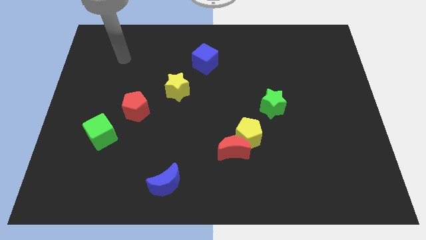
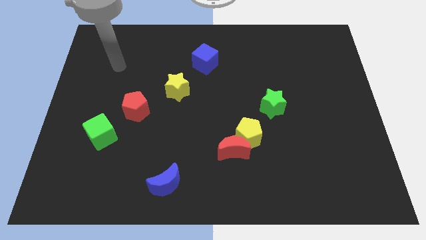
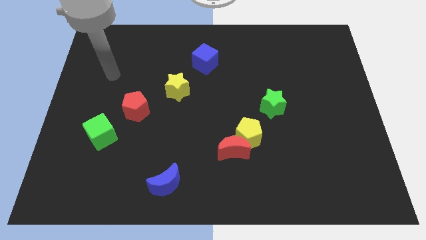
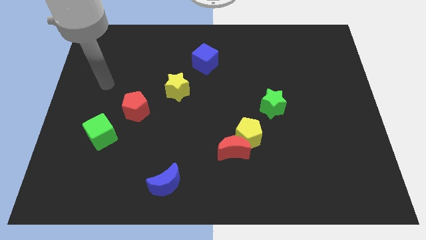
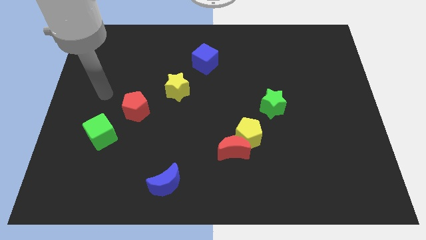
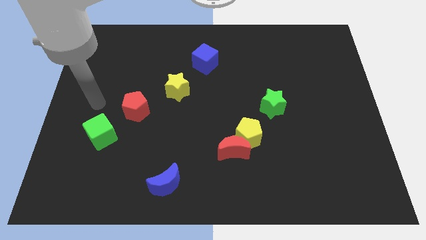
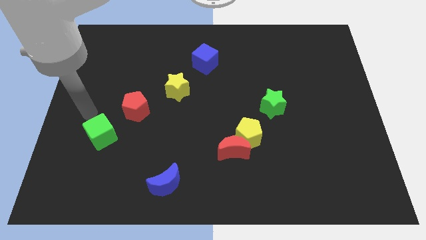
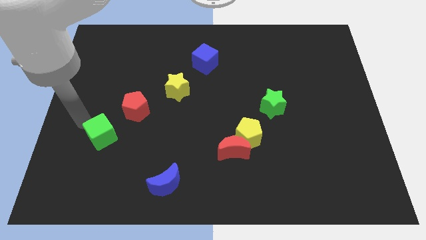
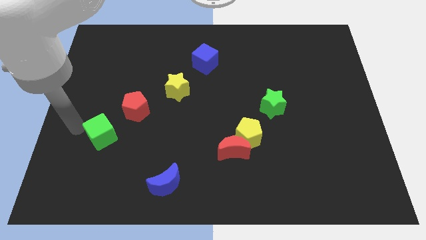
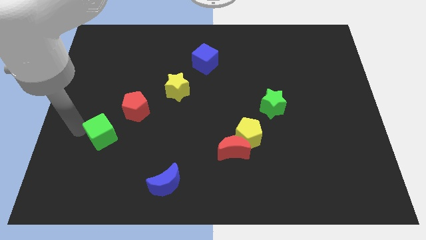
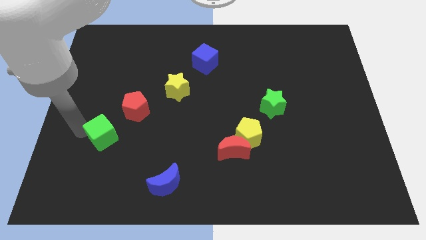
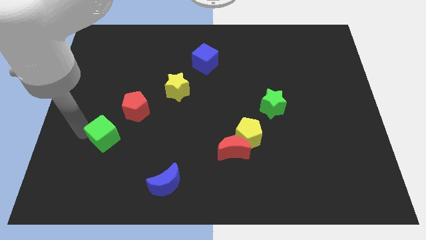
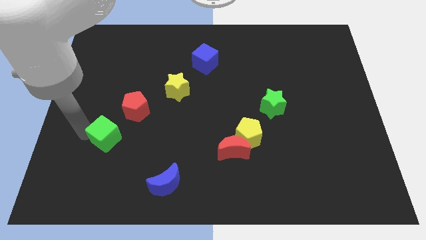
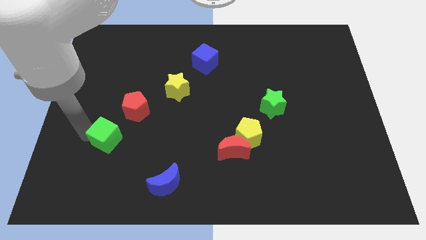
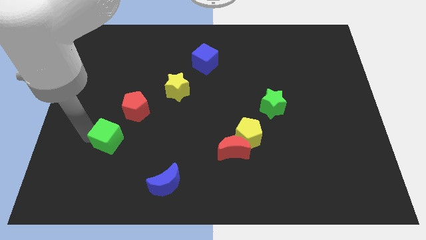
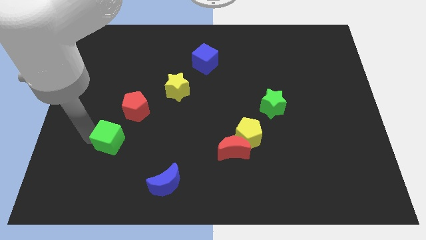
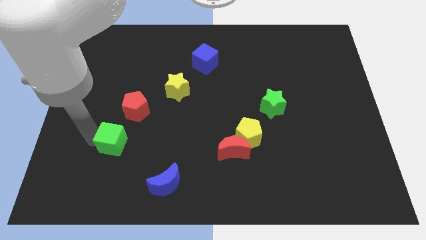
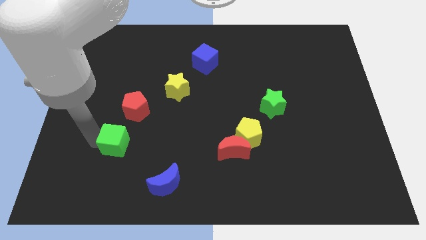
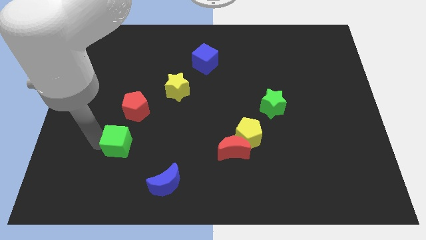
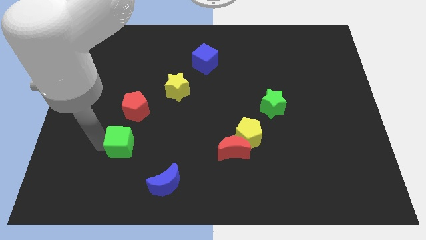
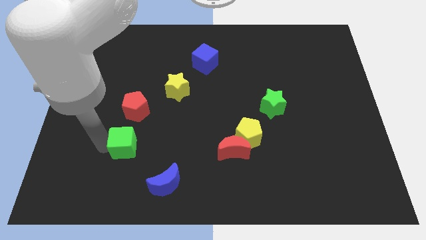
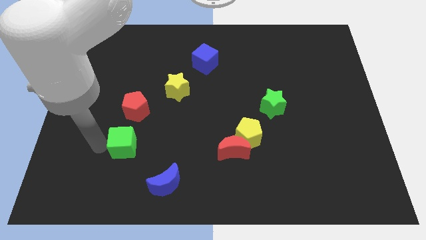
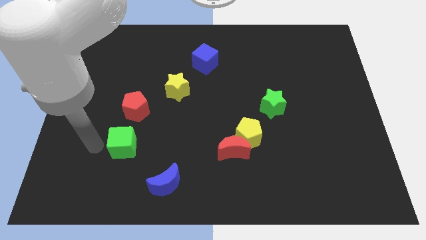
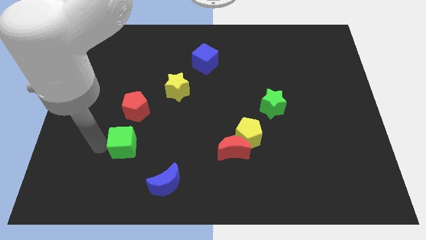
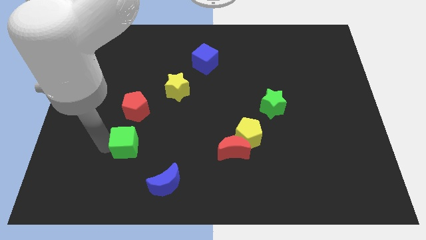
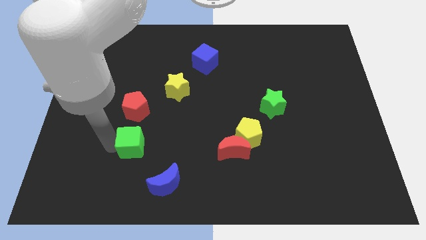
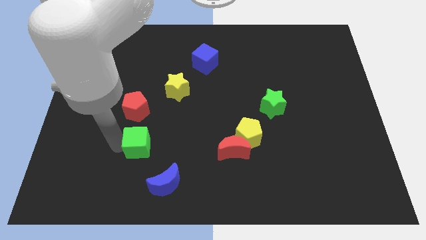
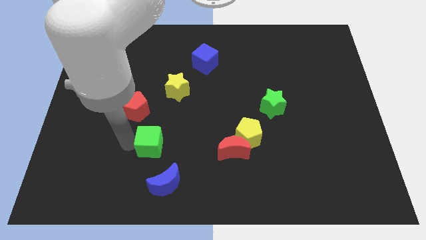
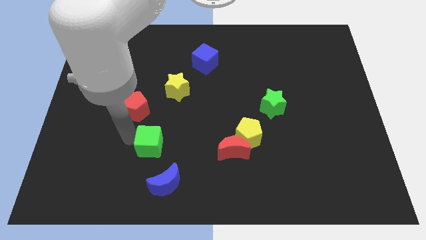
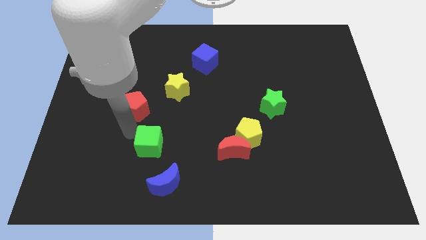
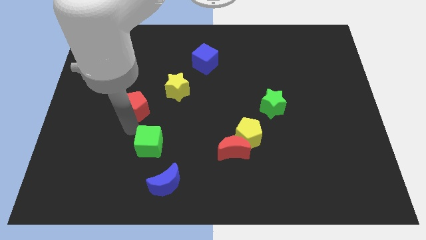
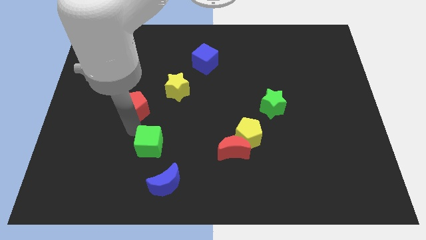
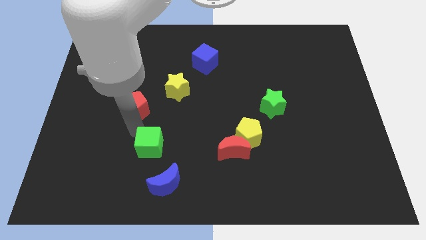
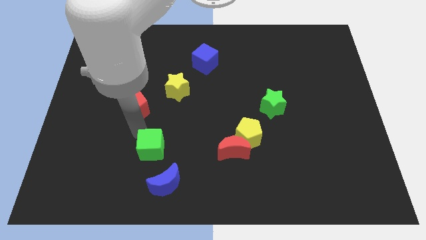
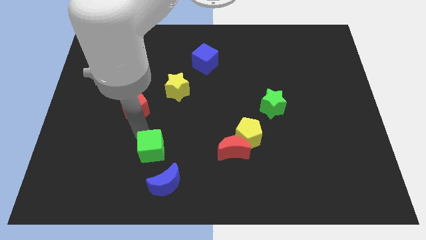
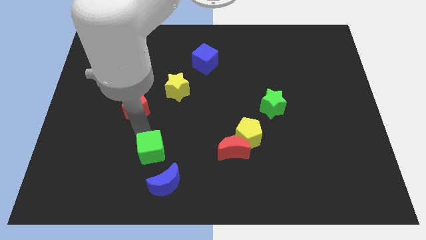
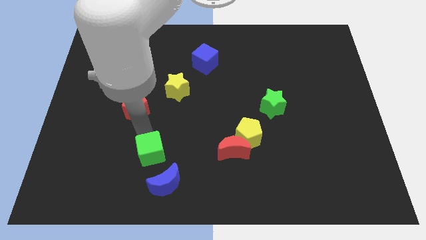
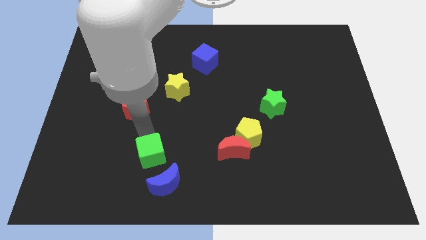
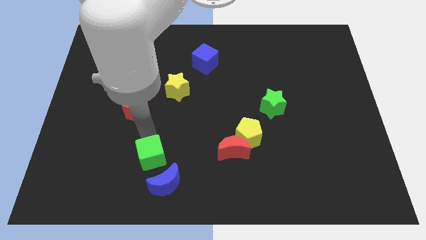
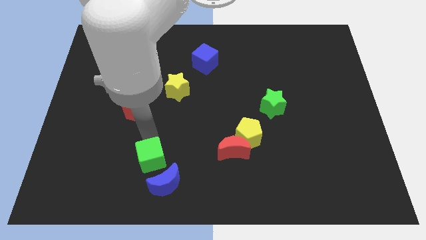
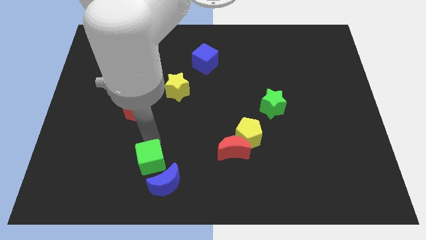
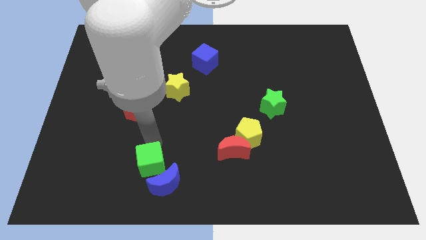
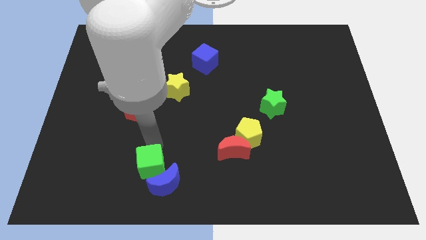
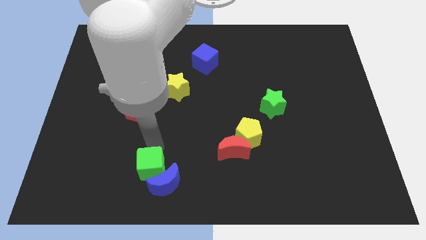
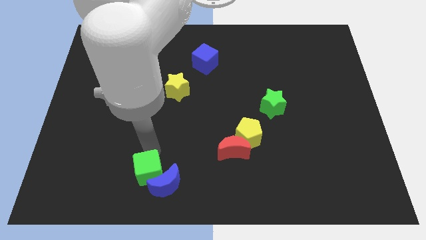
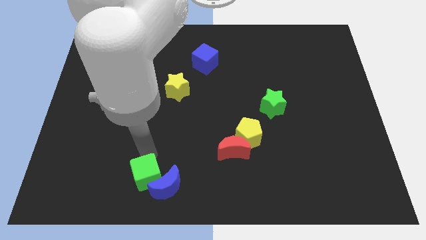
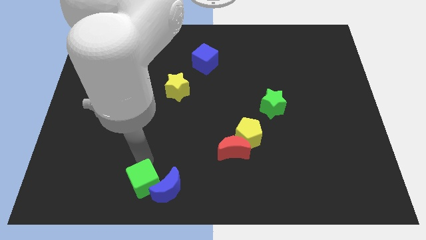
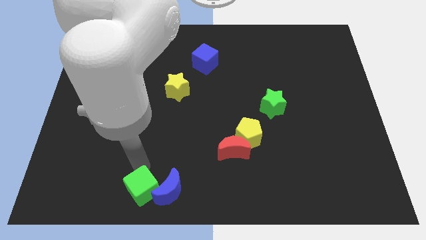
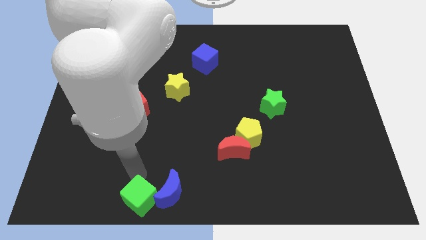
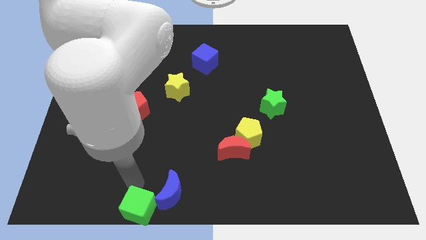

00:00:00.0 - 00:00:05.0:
move the green cube to the bottom

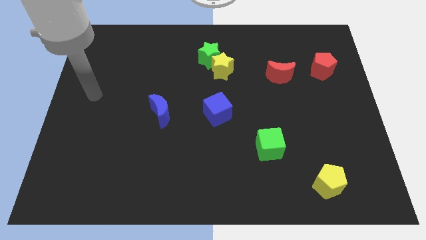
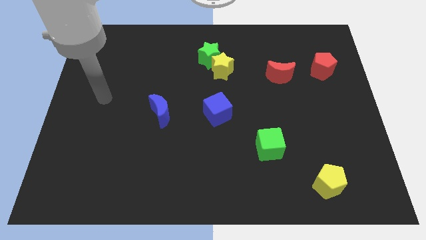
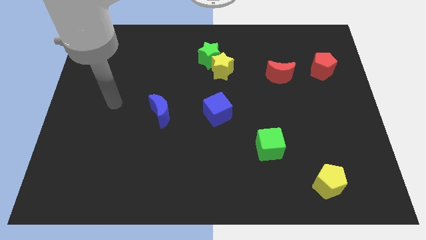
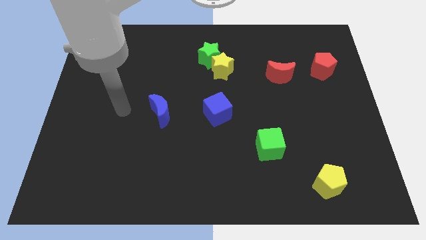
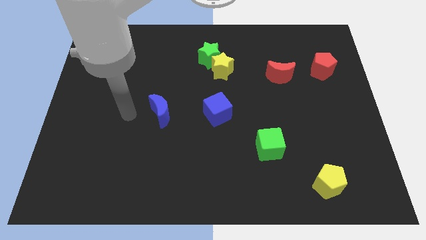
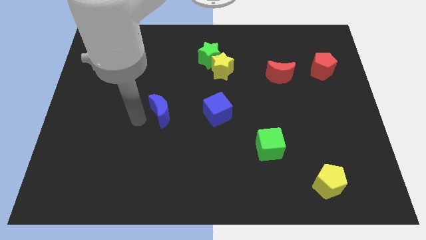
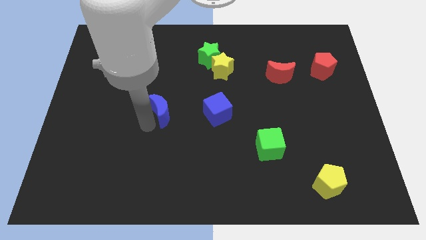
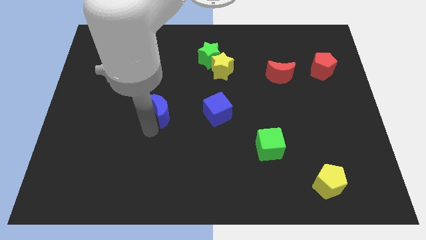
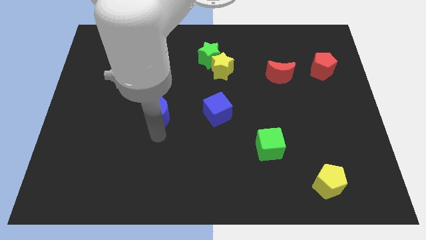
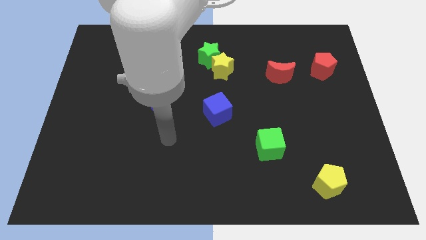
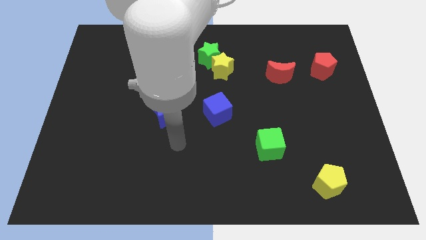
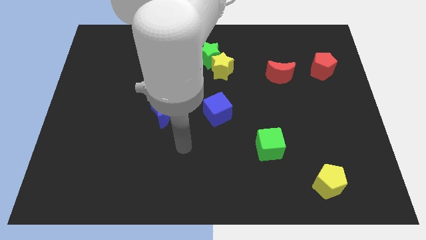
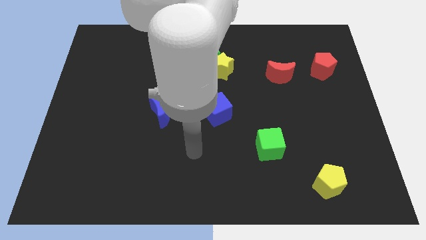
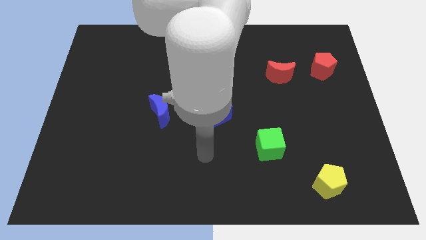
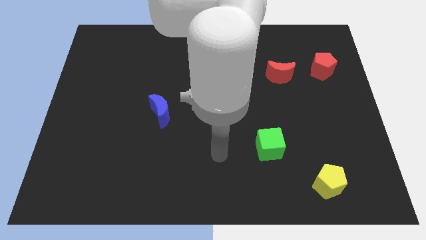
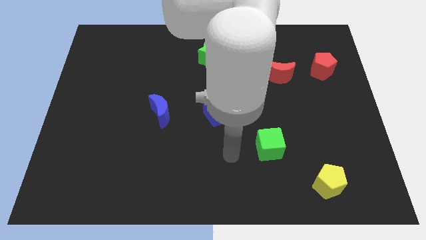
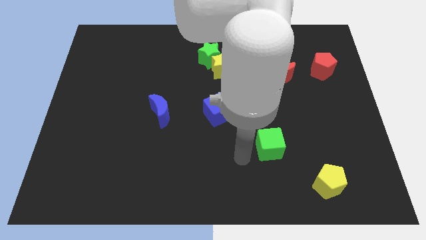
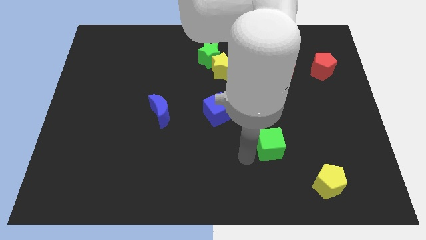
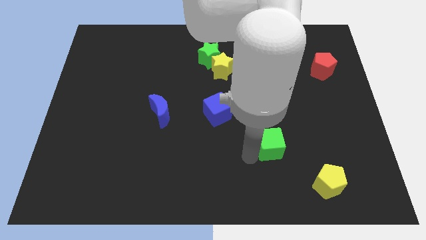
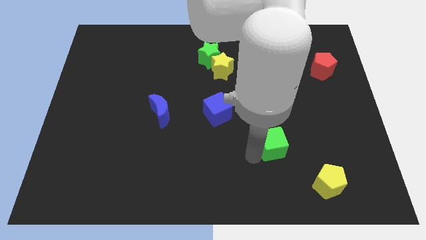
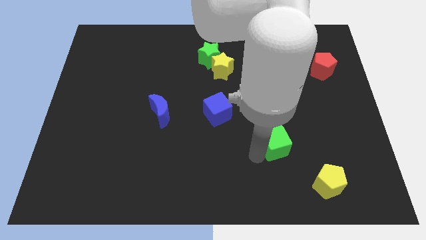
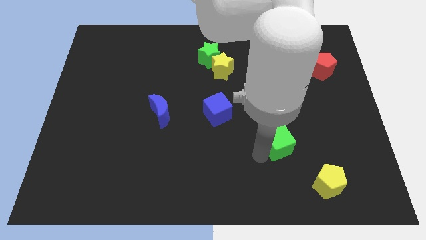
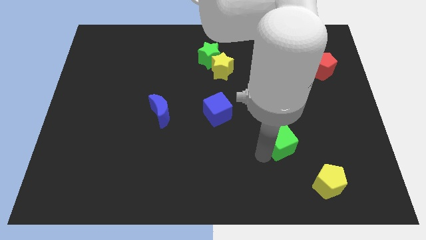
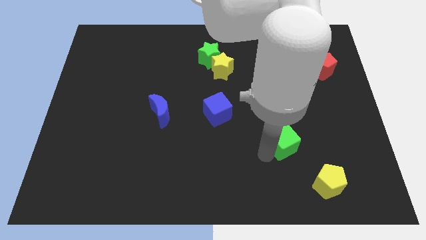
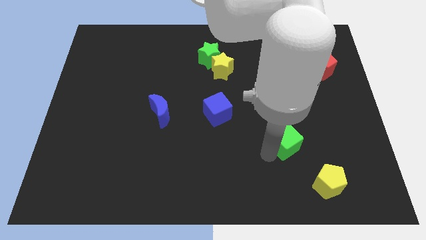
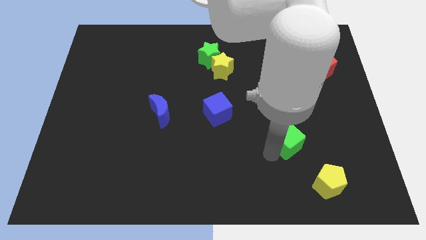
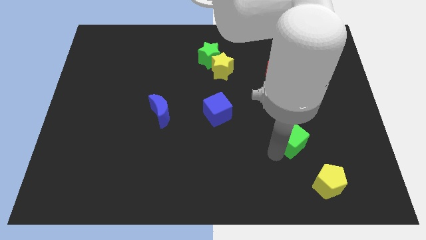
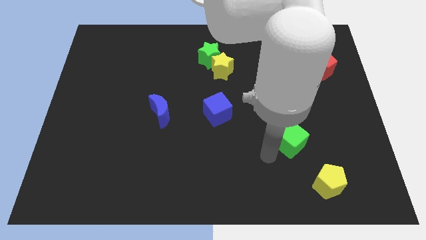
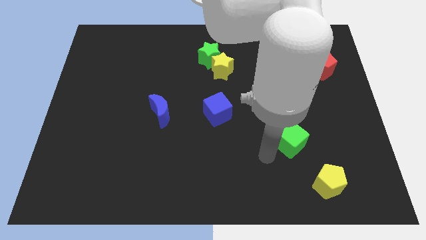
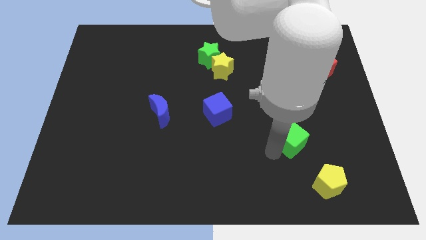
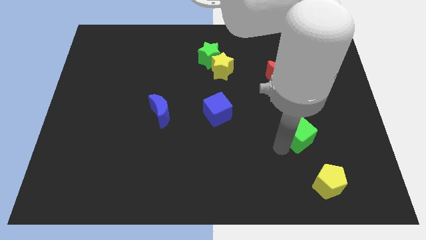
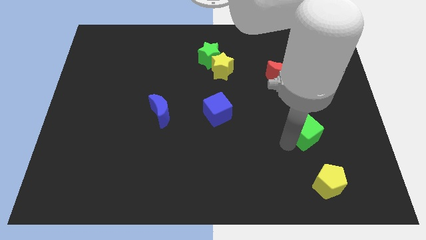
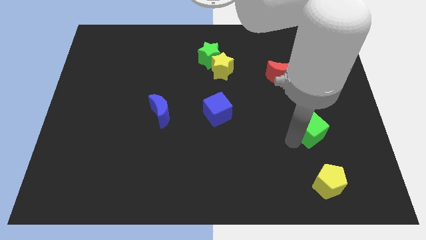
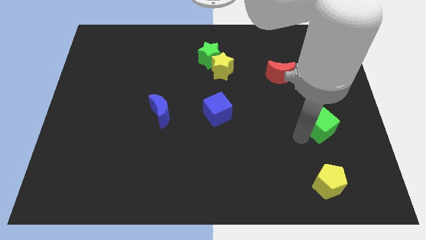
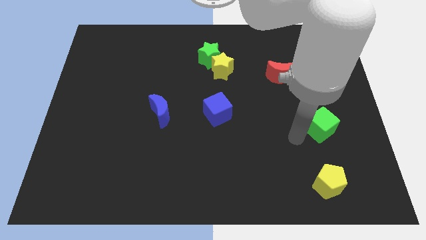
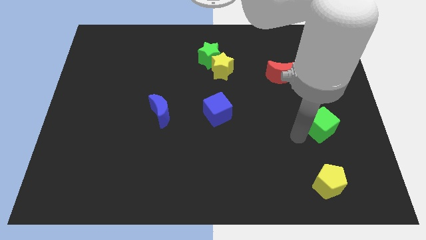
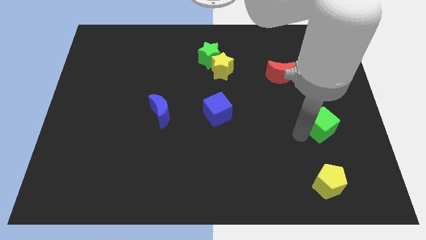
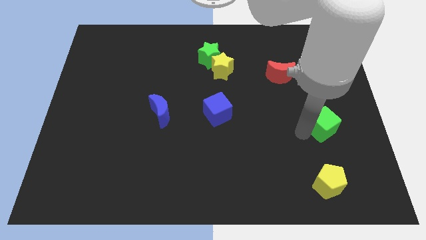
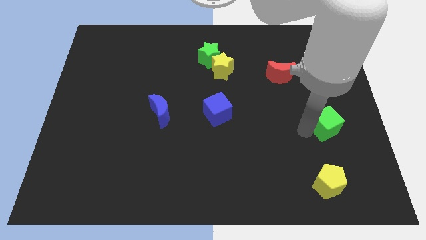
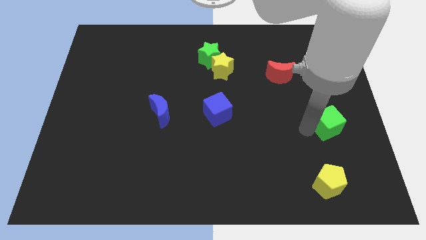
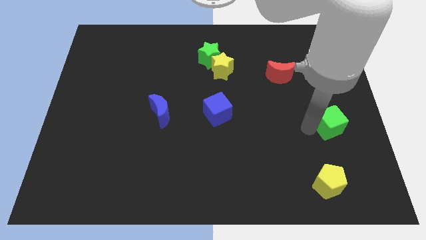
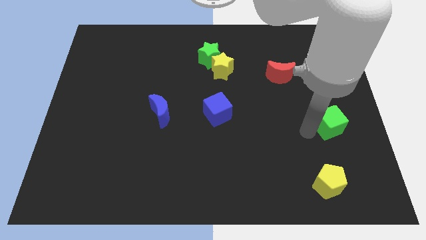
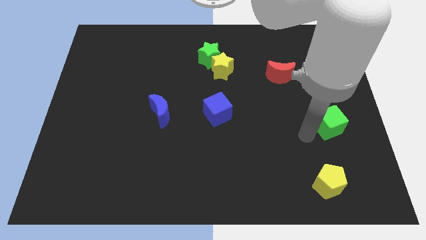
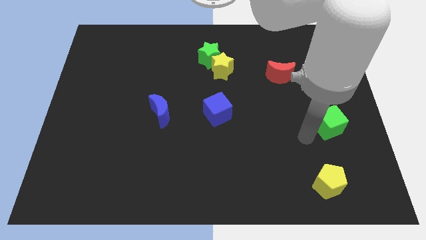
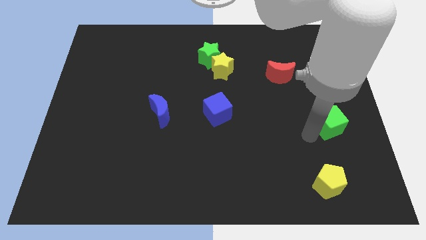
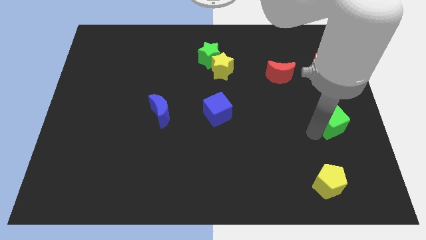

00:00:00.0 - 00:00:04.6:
put the green cube to the center right
